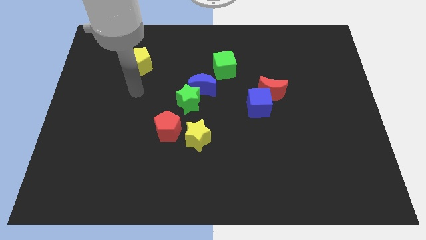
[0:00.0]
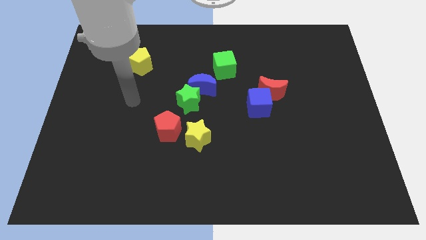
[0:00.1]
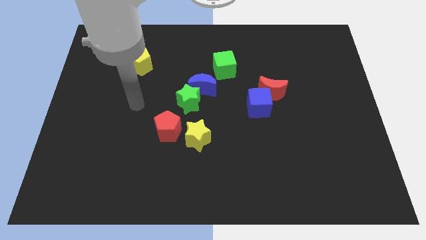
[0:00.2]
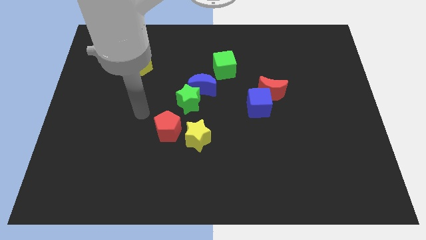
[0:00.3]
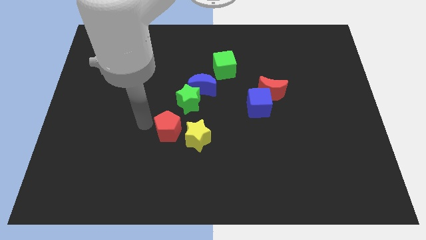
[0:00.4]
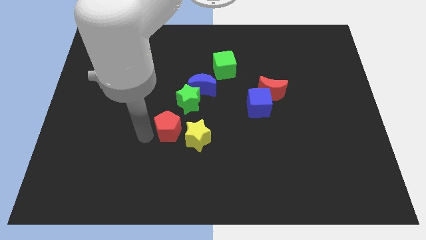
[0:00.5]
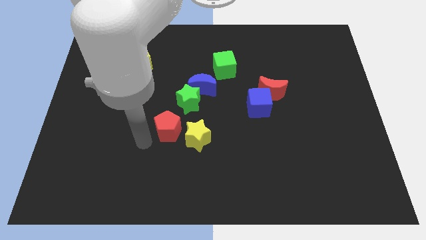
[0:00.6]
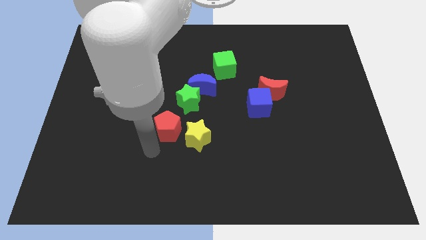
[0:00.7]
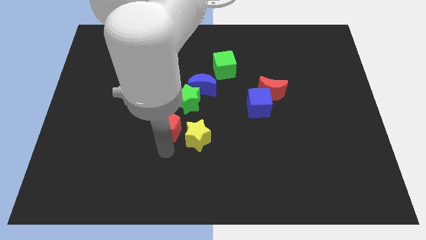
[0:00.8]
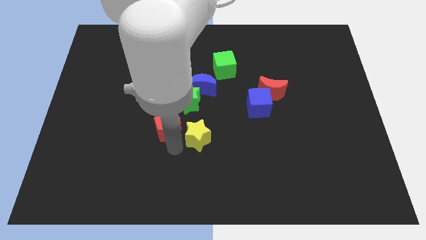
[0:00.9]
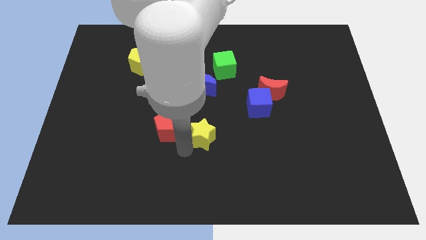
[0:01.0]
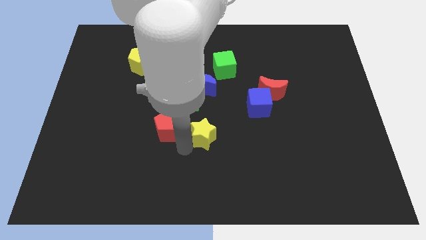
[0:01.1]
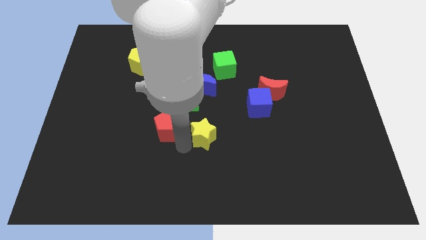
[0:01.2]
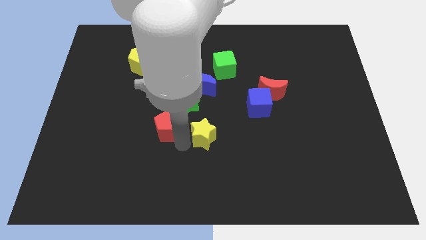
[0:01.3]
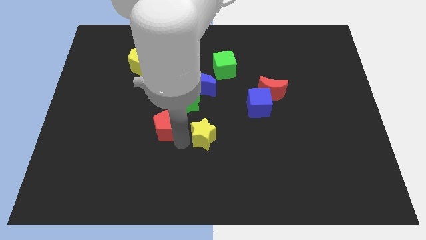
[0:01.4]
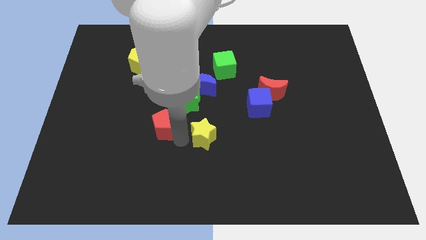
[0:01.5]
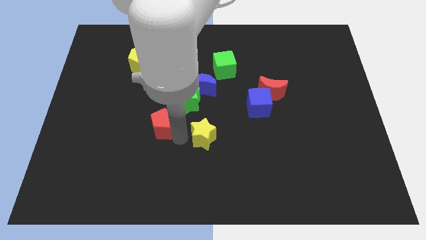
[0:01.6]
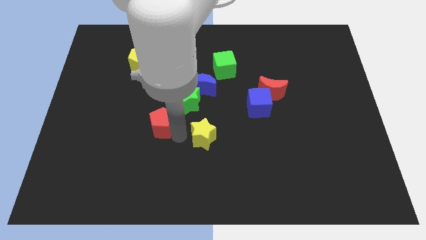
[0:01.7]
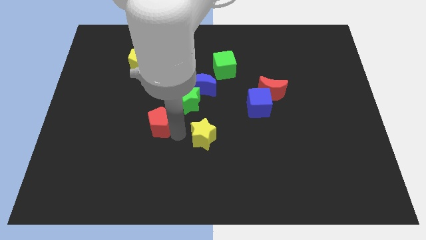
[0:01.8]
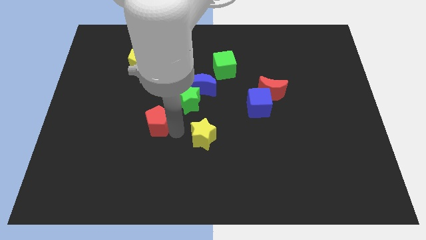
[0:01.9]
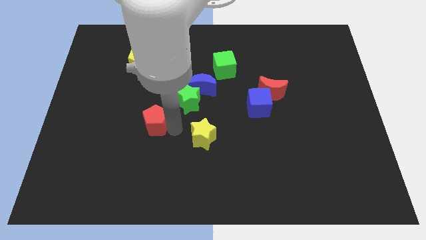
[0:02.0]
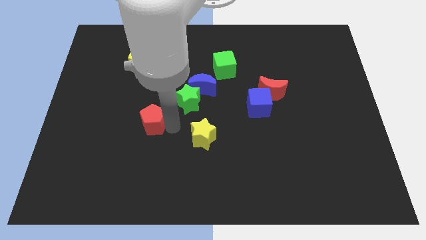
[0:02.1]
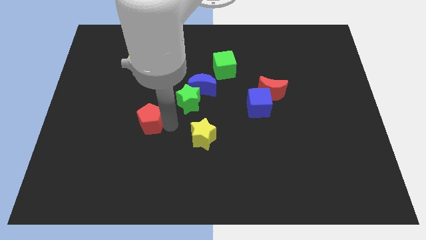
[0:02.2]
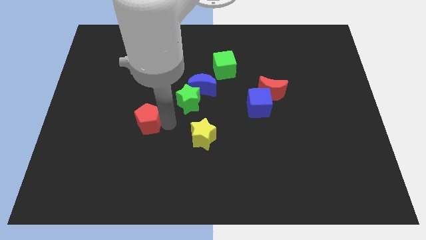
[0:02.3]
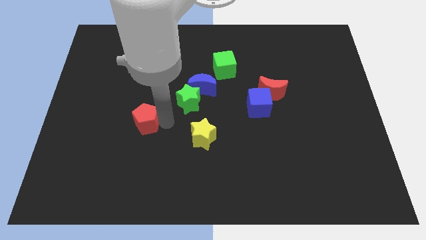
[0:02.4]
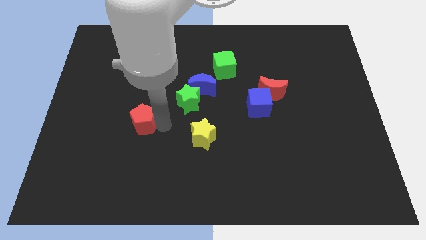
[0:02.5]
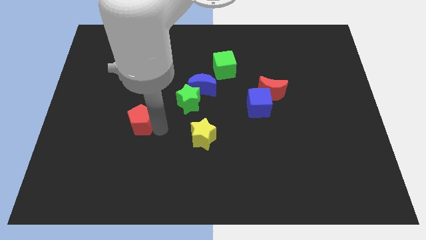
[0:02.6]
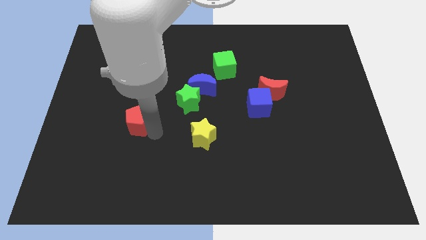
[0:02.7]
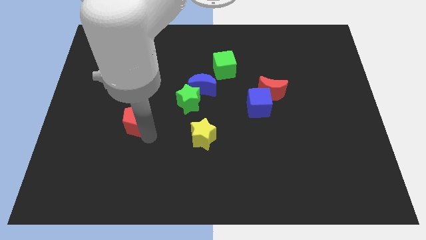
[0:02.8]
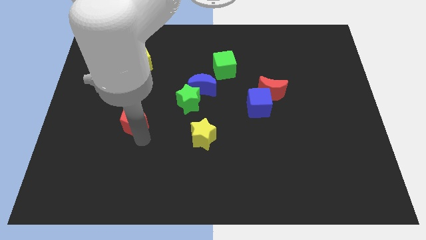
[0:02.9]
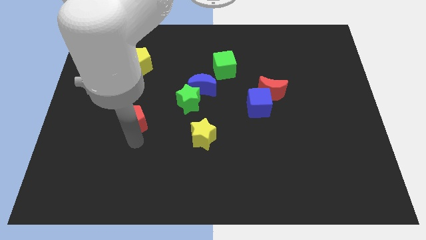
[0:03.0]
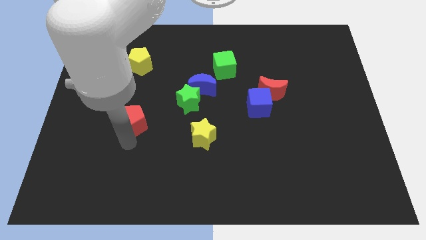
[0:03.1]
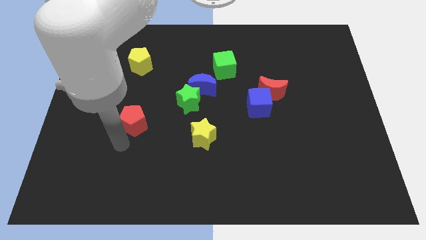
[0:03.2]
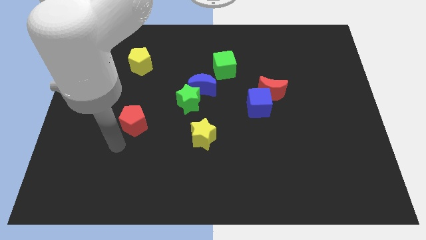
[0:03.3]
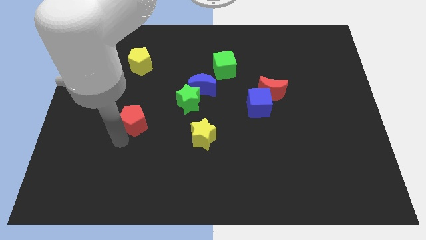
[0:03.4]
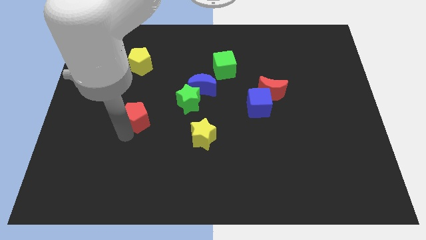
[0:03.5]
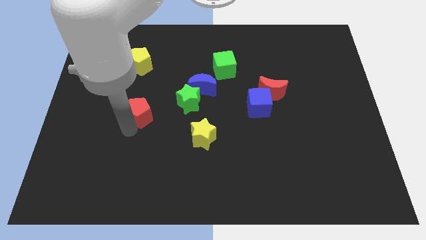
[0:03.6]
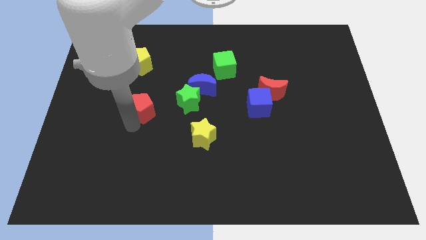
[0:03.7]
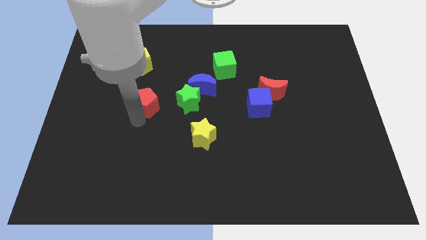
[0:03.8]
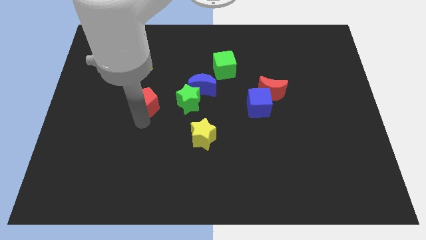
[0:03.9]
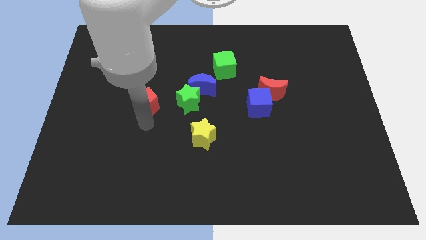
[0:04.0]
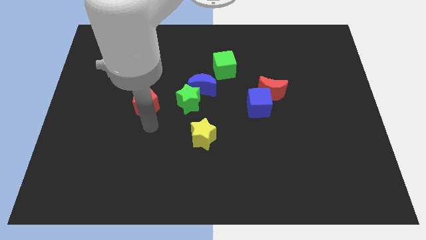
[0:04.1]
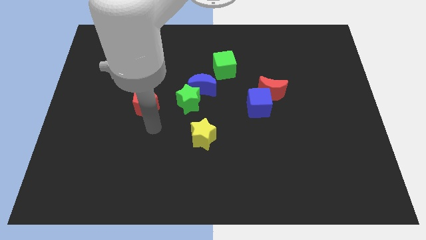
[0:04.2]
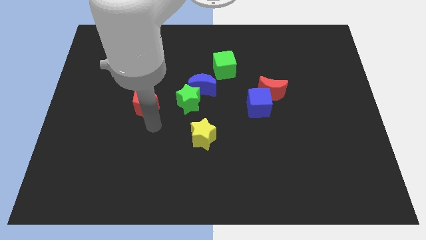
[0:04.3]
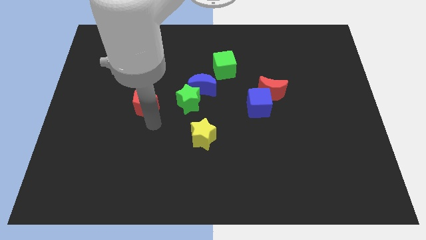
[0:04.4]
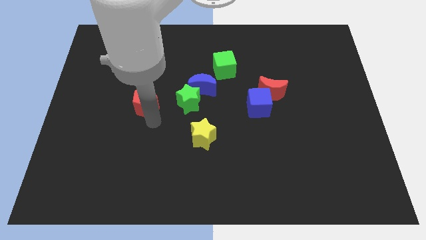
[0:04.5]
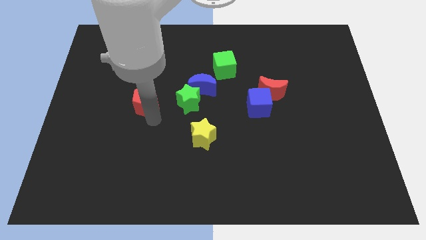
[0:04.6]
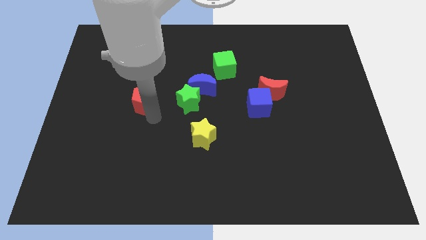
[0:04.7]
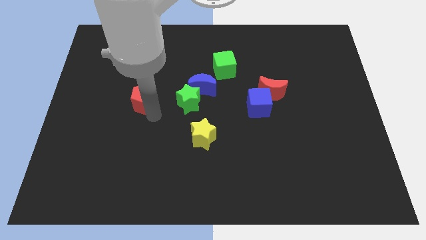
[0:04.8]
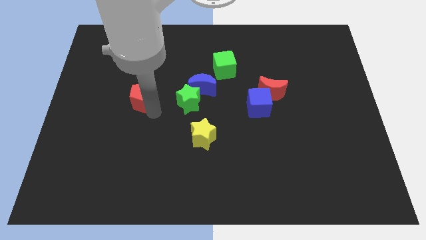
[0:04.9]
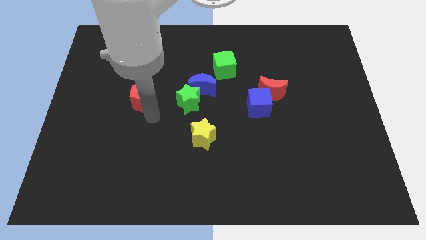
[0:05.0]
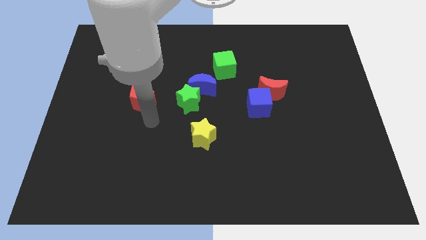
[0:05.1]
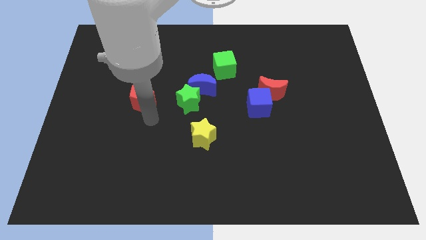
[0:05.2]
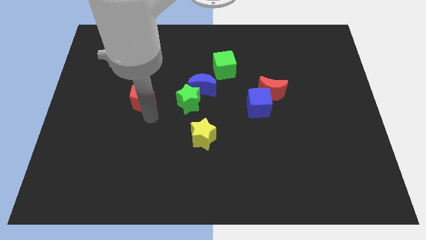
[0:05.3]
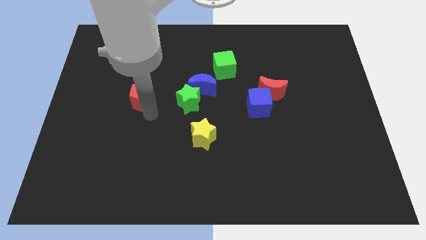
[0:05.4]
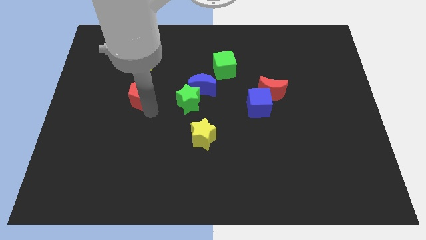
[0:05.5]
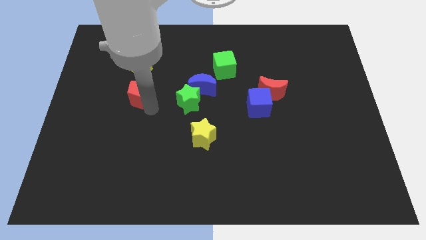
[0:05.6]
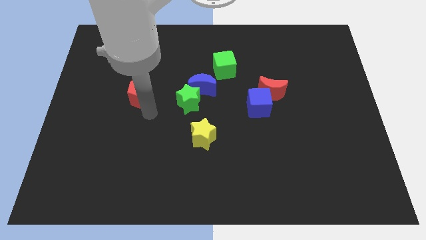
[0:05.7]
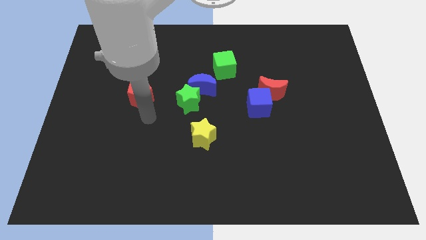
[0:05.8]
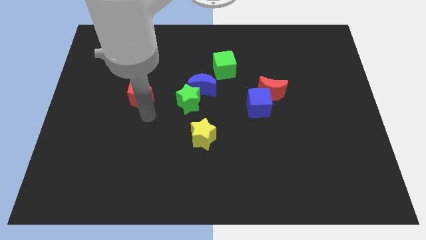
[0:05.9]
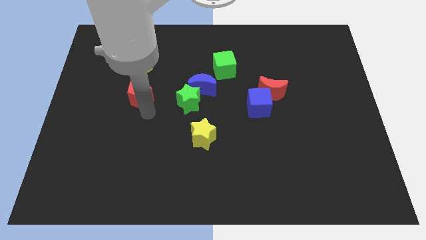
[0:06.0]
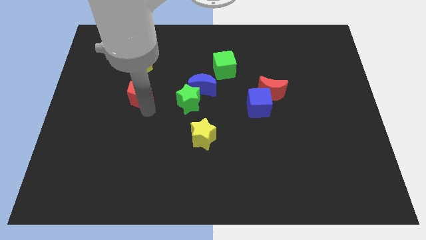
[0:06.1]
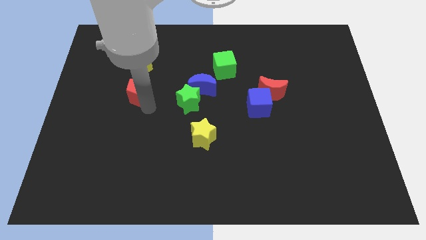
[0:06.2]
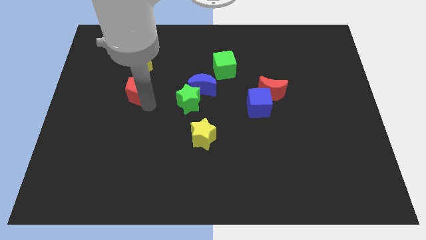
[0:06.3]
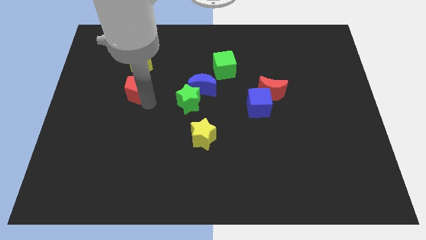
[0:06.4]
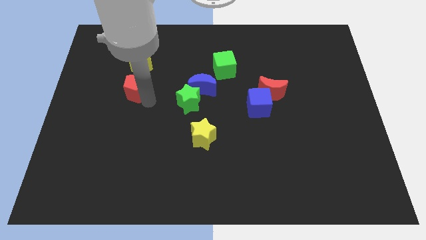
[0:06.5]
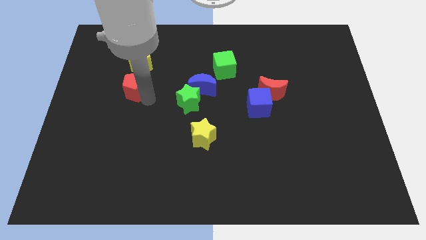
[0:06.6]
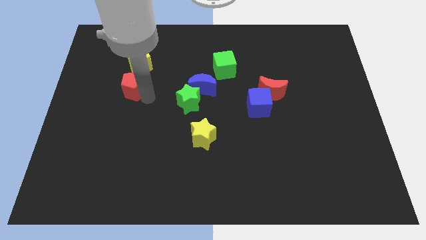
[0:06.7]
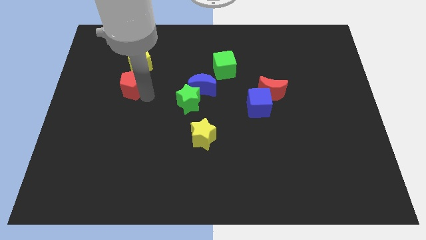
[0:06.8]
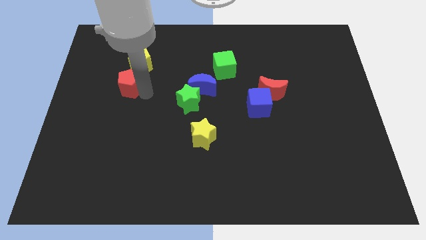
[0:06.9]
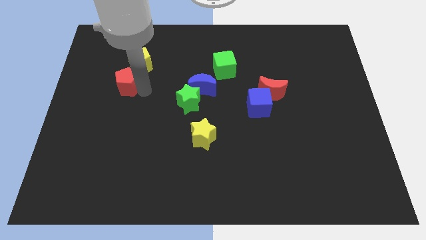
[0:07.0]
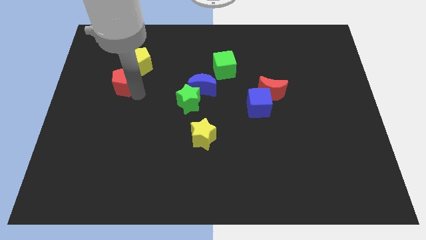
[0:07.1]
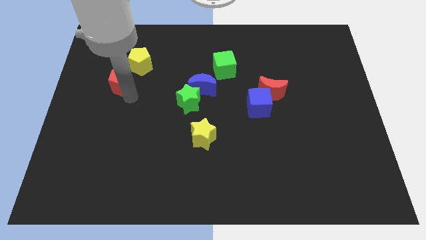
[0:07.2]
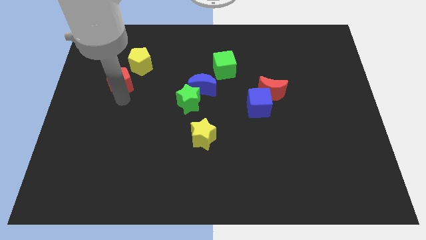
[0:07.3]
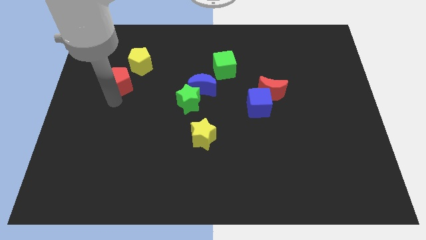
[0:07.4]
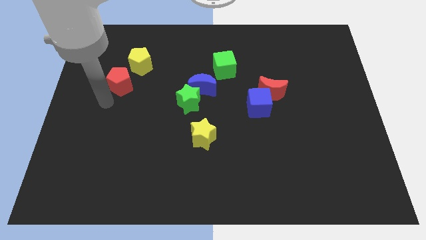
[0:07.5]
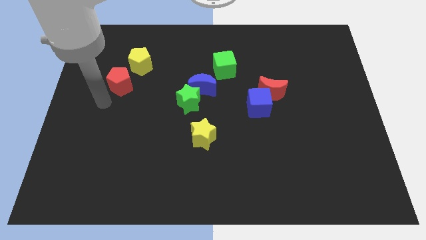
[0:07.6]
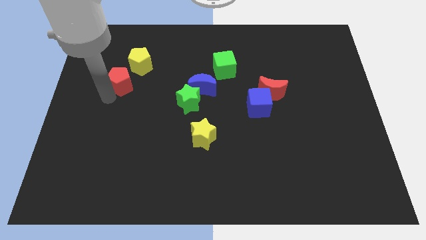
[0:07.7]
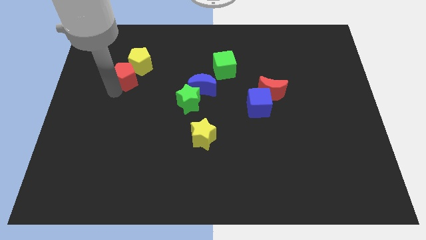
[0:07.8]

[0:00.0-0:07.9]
put the red pentagon close to the yellow pentagon
